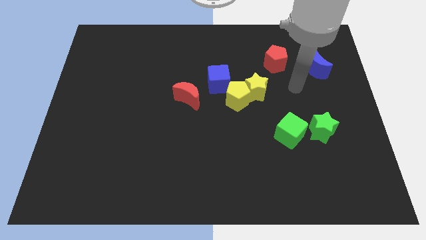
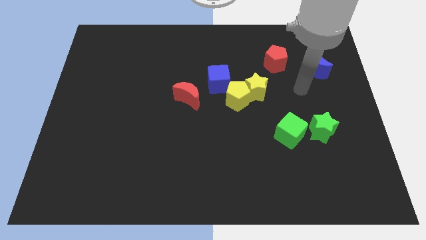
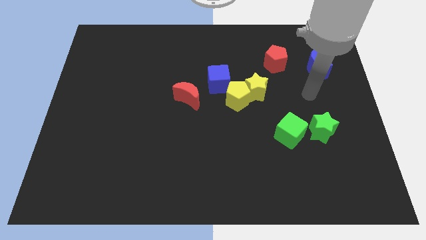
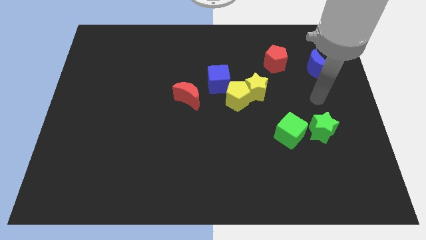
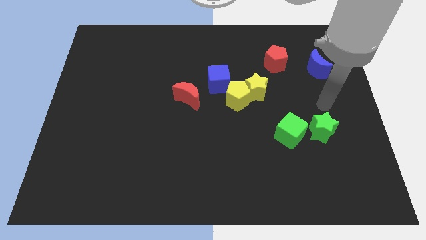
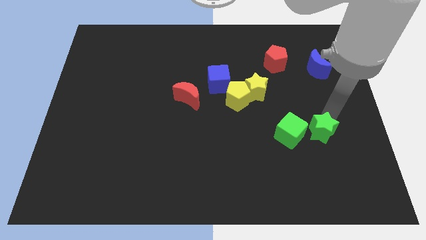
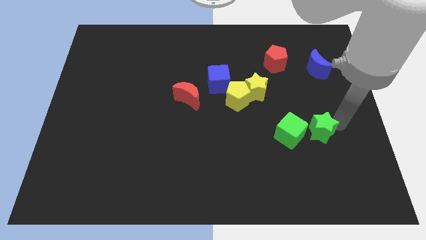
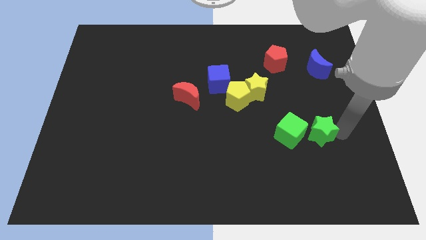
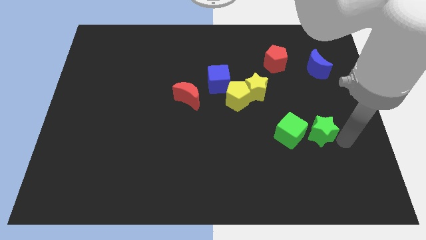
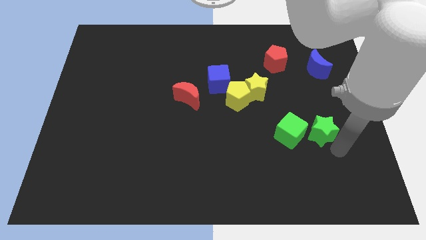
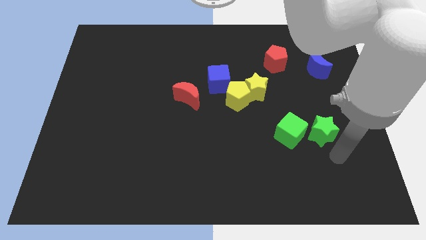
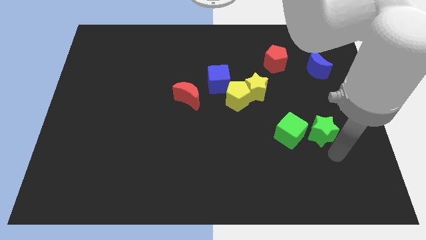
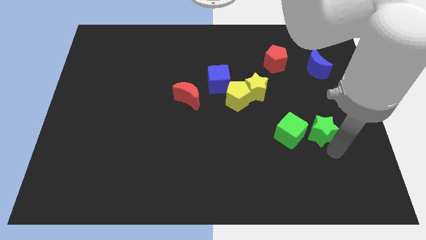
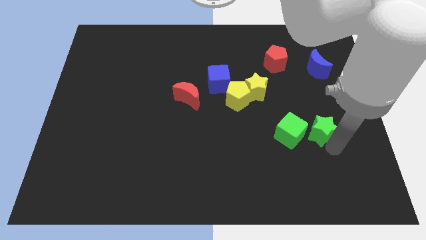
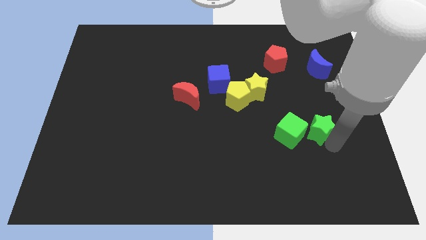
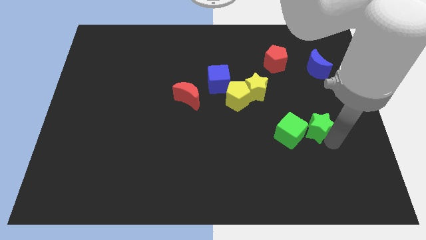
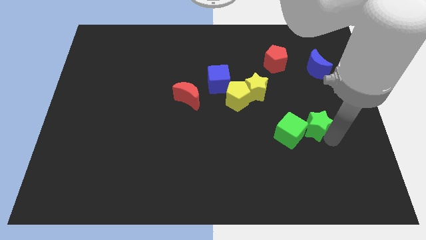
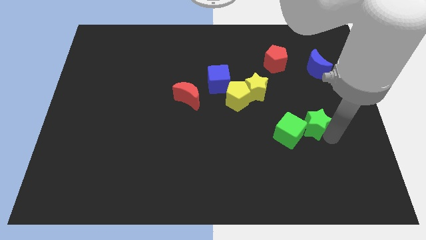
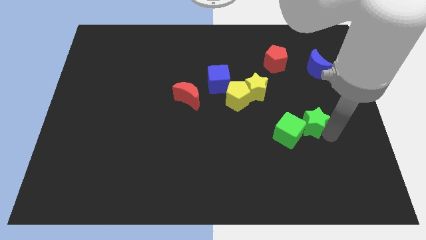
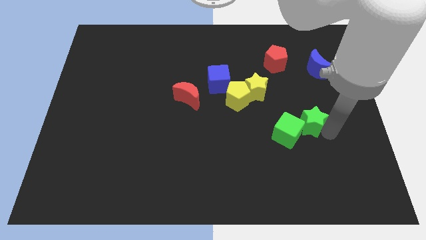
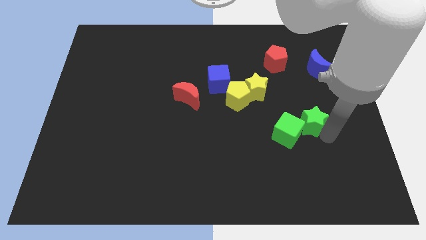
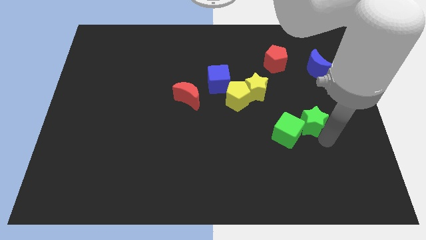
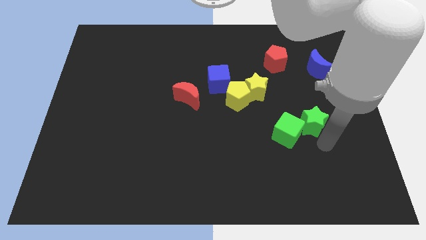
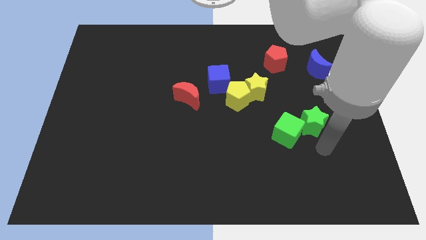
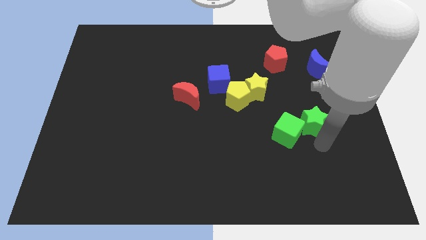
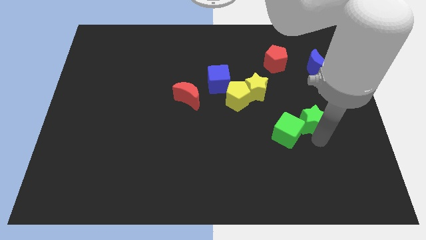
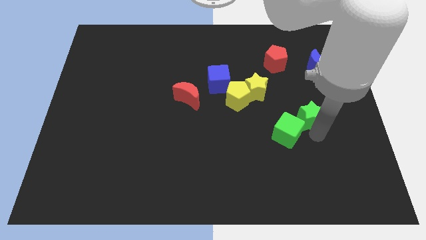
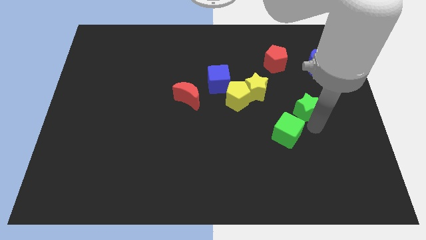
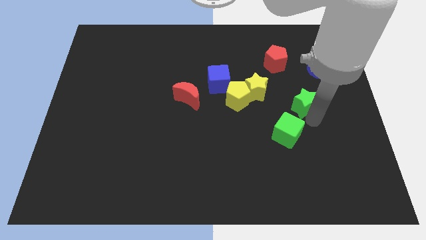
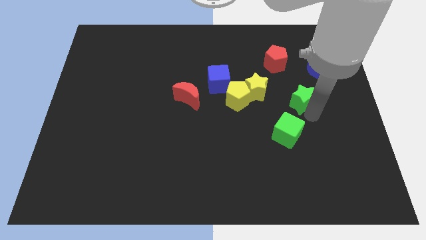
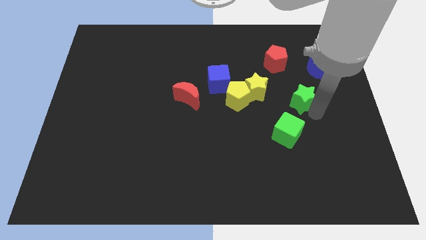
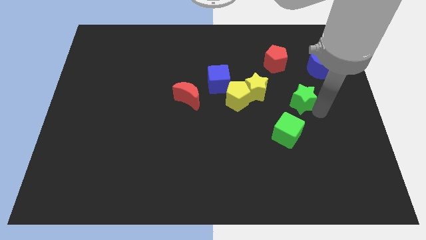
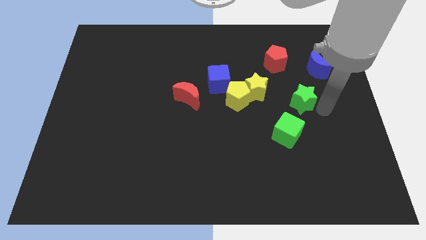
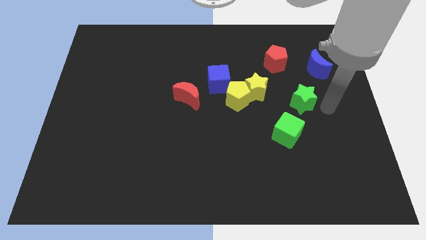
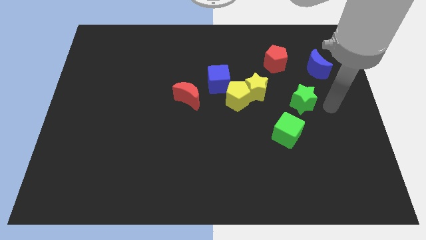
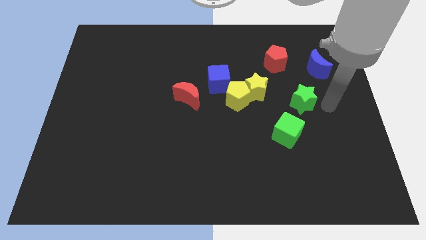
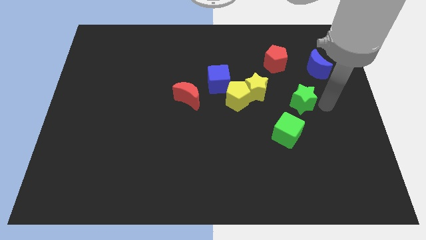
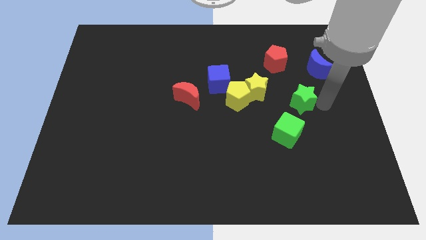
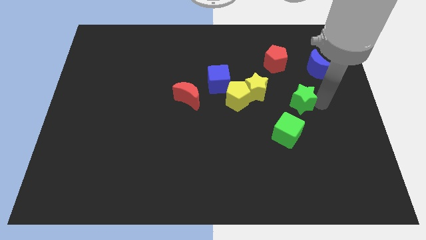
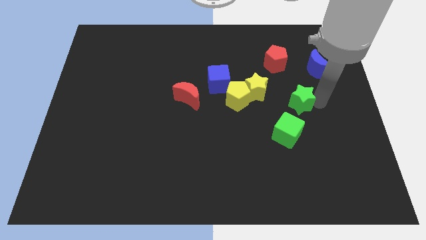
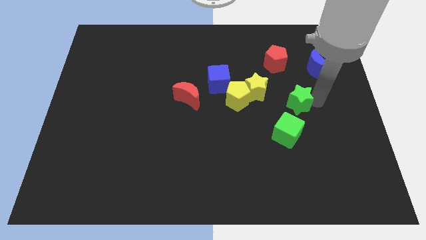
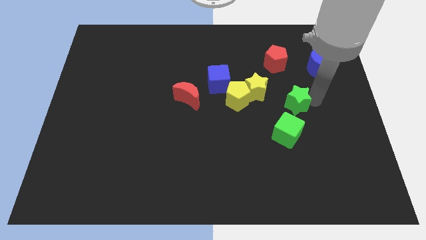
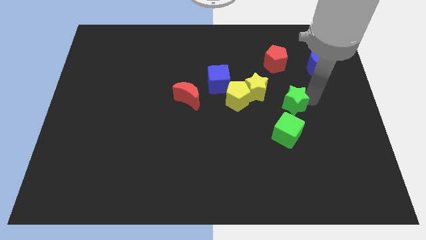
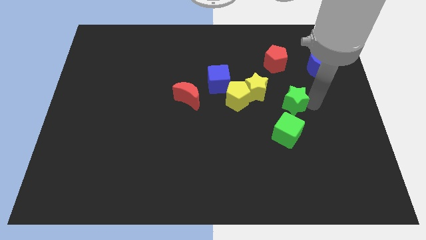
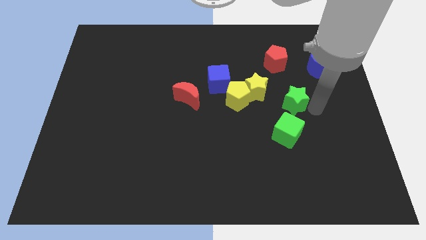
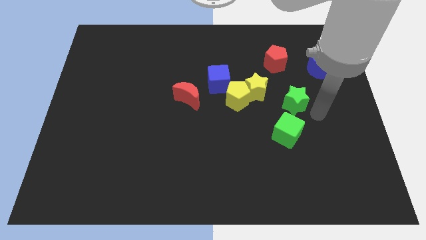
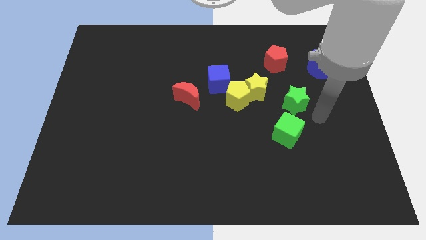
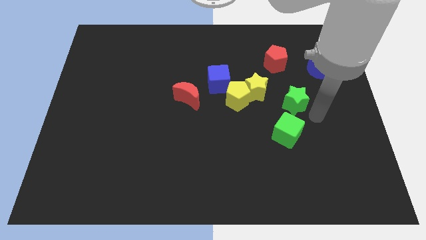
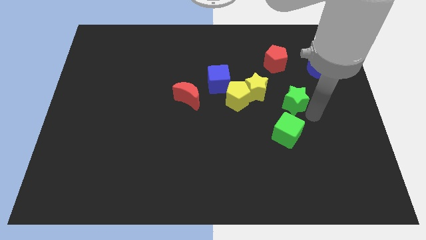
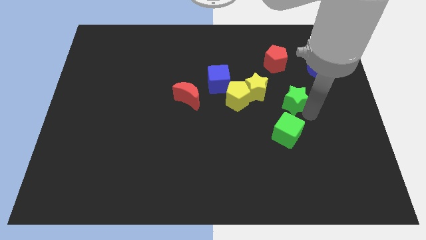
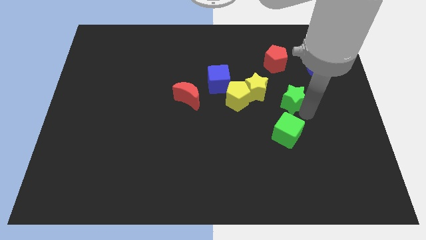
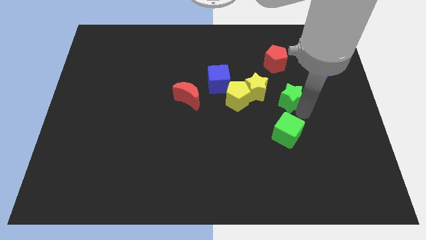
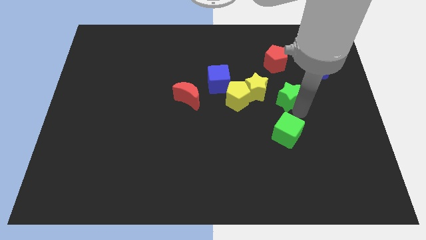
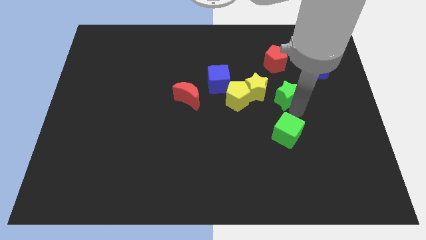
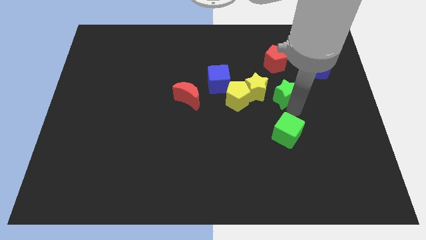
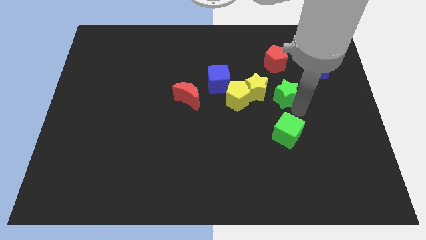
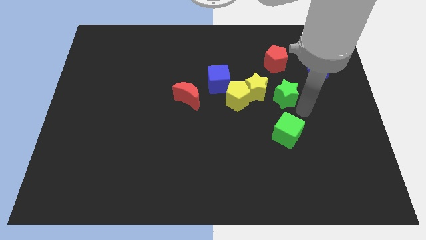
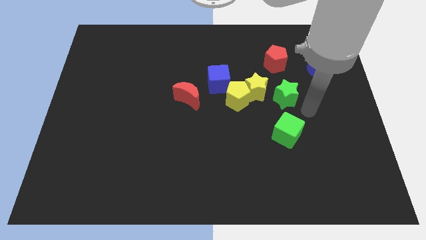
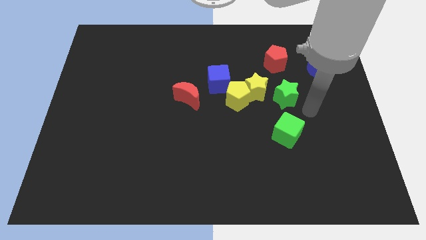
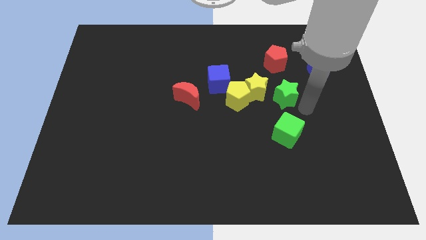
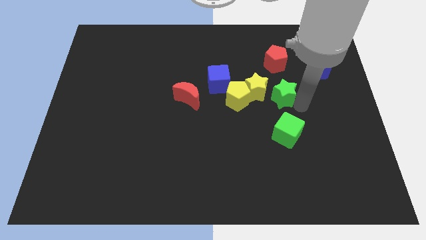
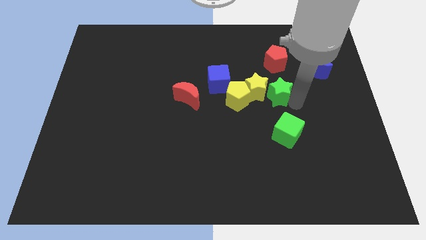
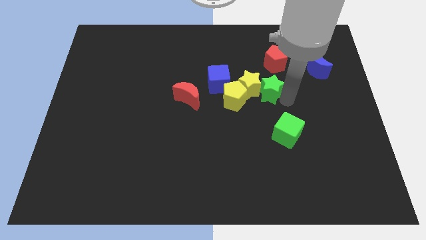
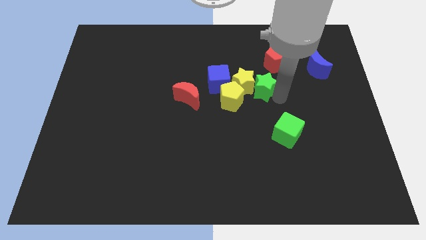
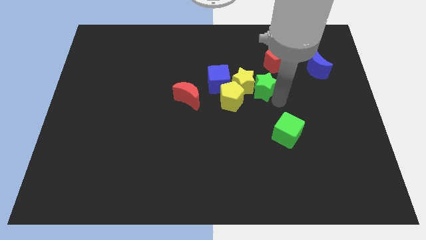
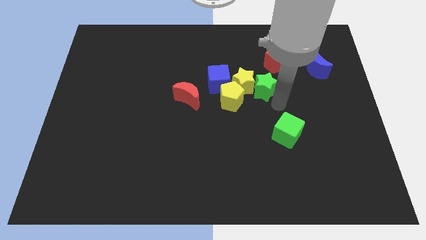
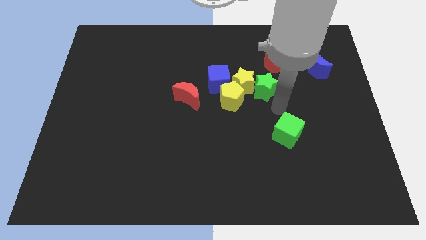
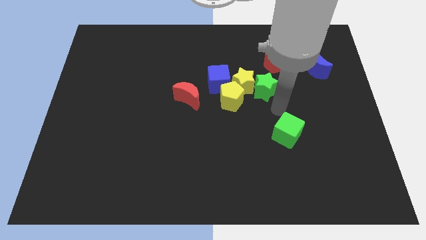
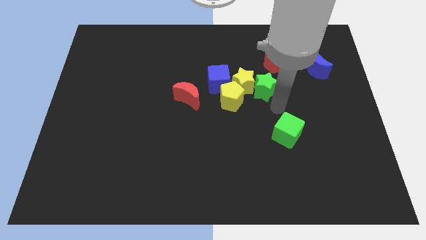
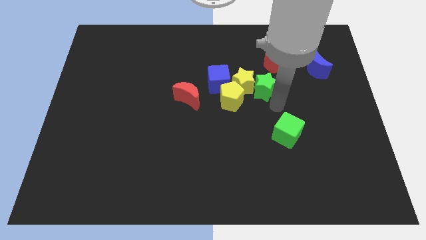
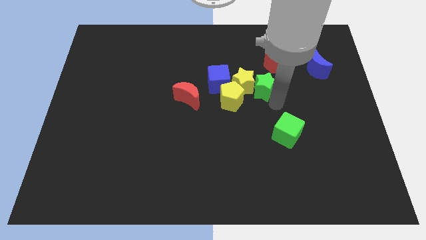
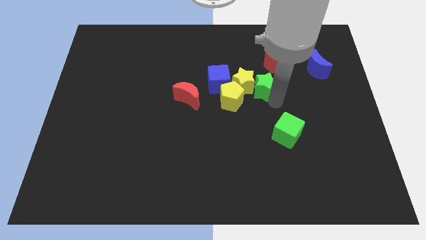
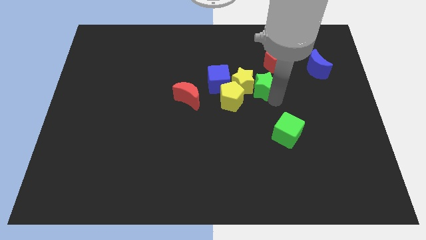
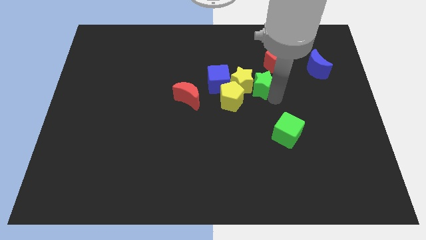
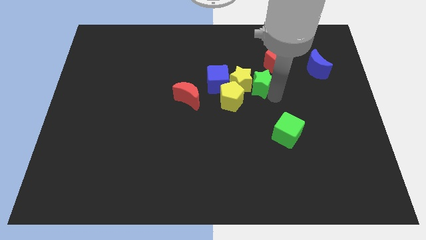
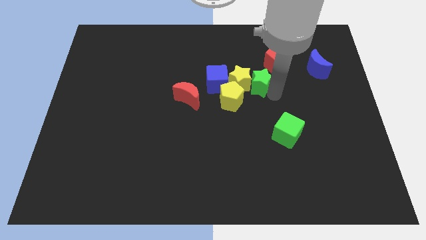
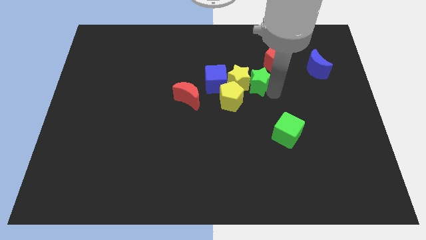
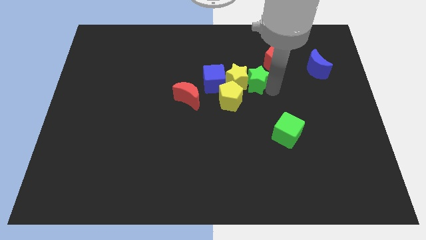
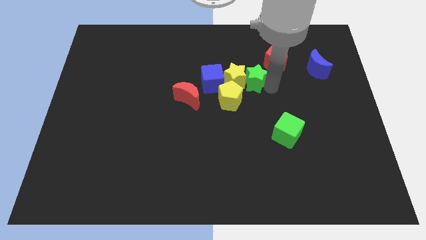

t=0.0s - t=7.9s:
move the green star diagonally upwards and left
